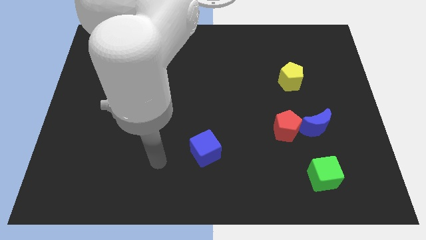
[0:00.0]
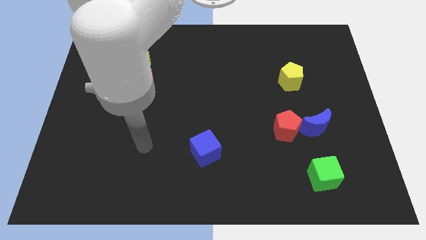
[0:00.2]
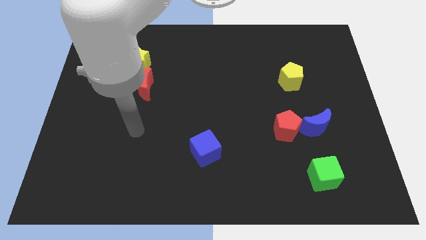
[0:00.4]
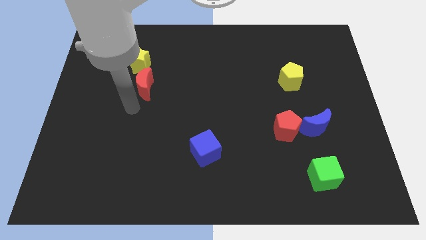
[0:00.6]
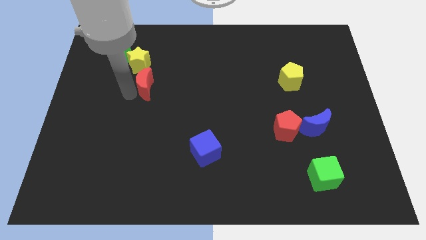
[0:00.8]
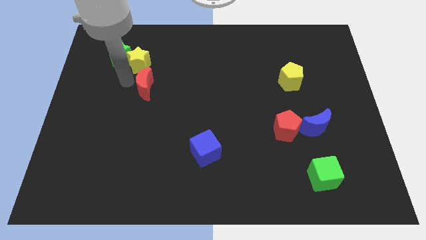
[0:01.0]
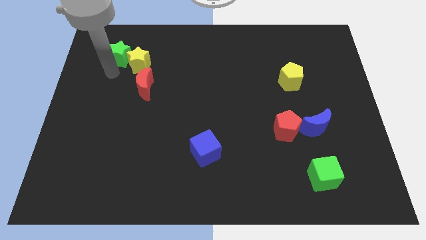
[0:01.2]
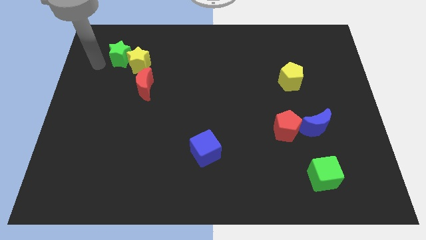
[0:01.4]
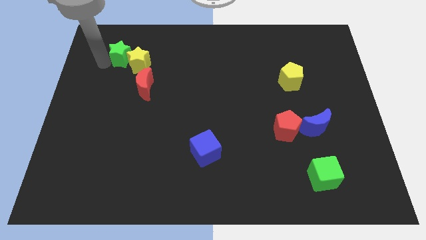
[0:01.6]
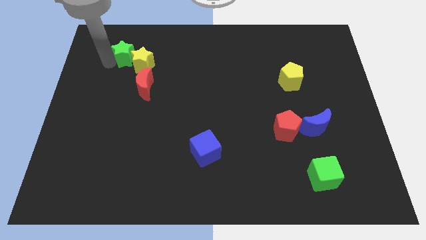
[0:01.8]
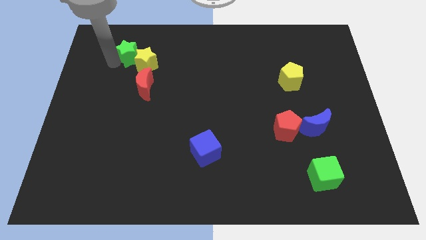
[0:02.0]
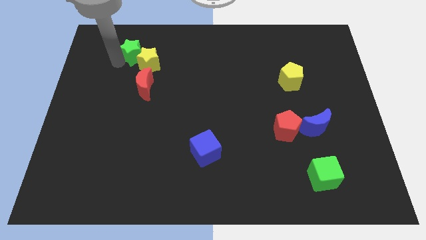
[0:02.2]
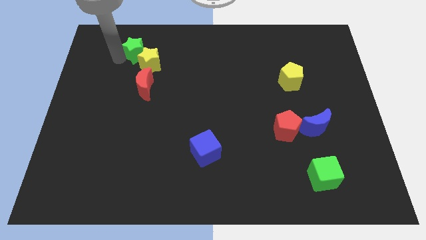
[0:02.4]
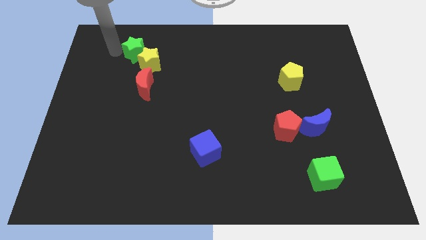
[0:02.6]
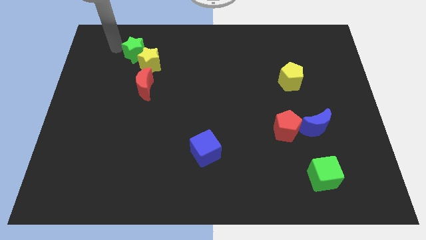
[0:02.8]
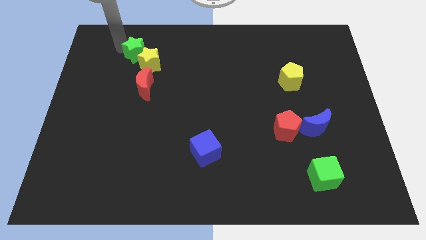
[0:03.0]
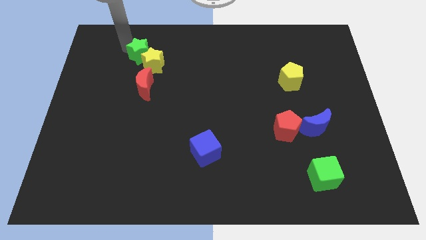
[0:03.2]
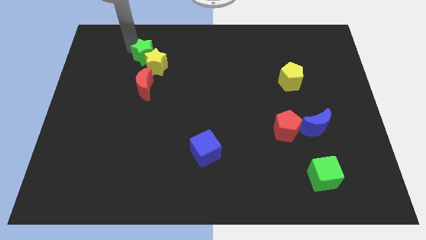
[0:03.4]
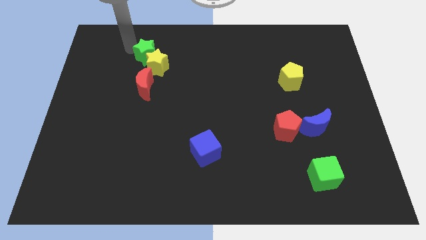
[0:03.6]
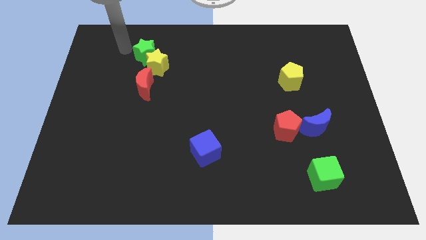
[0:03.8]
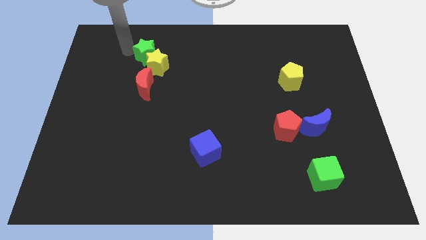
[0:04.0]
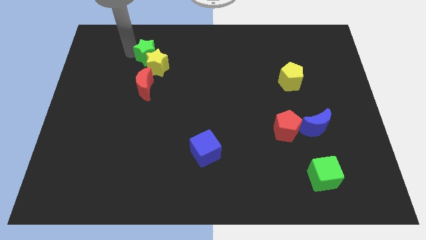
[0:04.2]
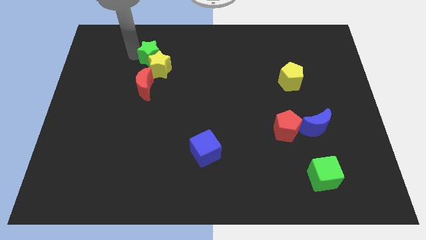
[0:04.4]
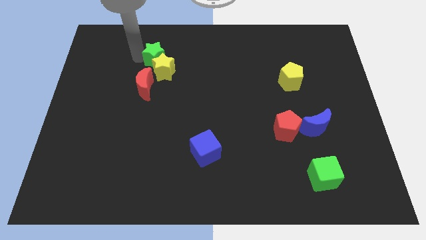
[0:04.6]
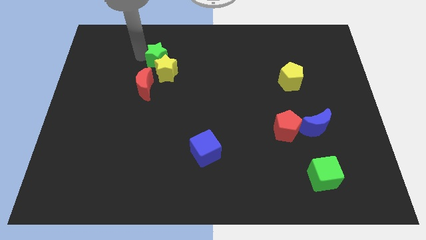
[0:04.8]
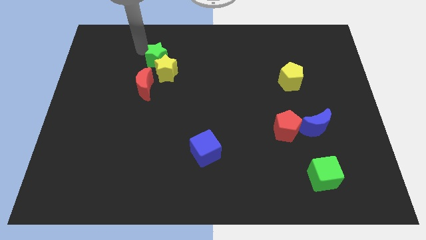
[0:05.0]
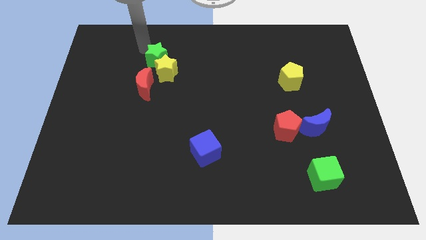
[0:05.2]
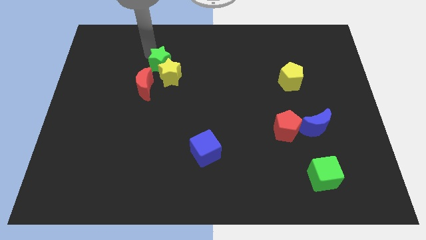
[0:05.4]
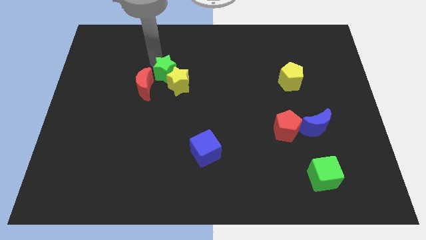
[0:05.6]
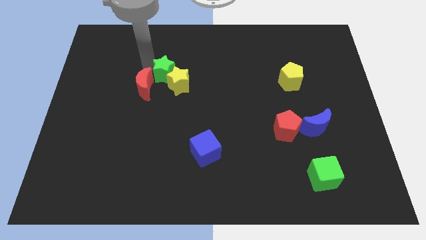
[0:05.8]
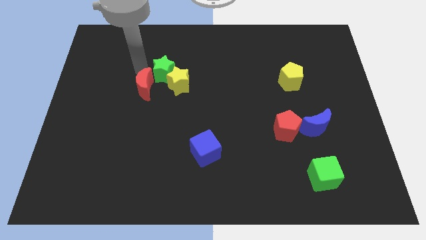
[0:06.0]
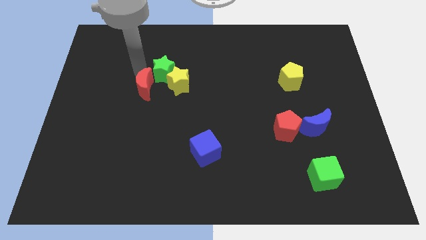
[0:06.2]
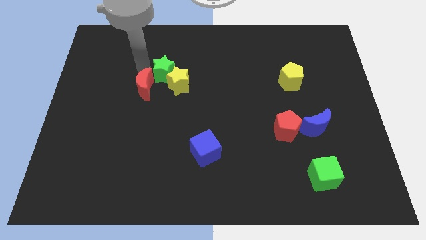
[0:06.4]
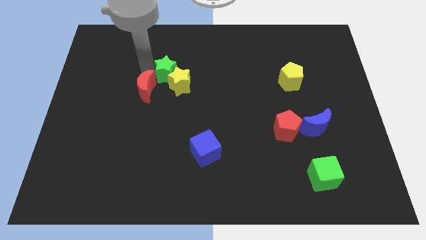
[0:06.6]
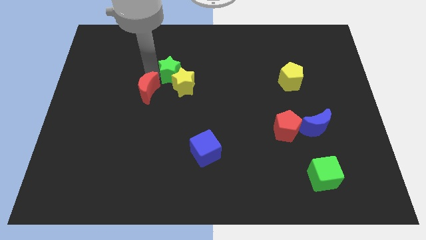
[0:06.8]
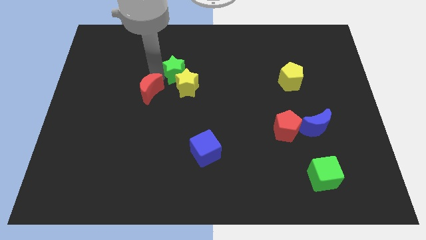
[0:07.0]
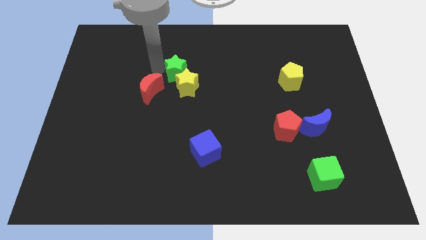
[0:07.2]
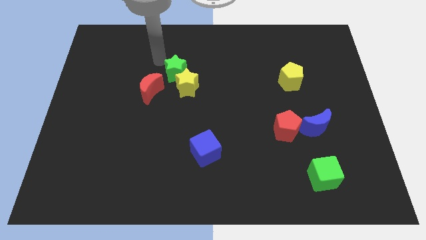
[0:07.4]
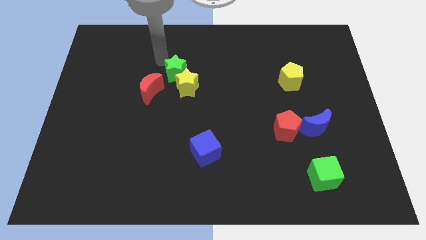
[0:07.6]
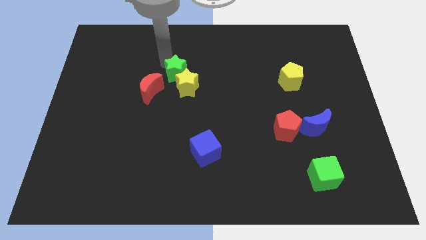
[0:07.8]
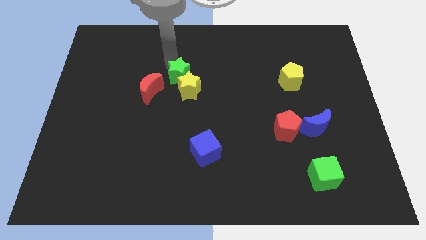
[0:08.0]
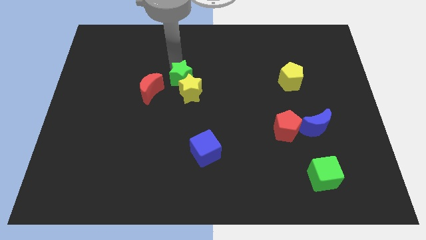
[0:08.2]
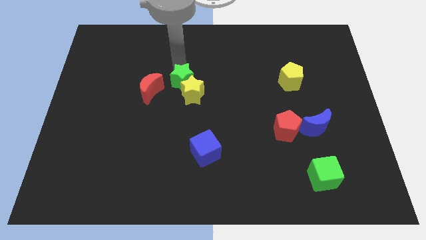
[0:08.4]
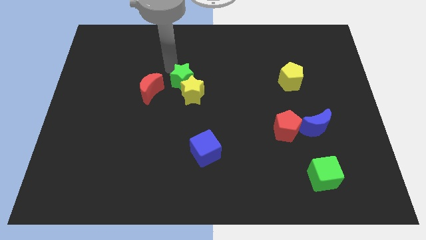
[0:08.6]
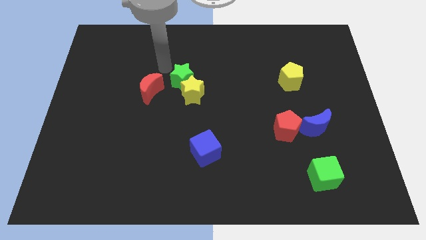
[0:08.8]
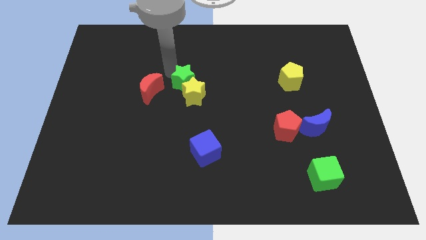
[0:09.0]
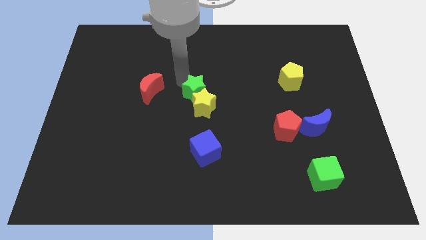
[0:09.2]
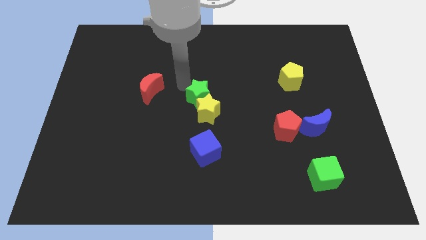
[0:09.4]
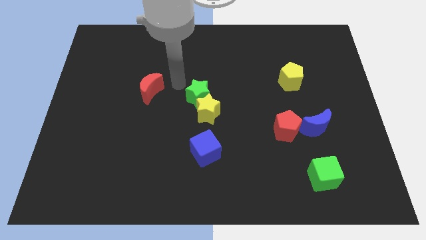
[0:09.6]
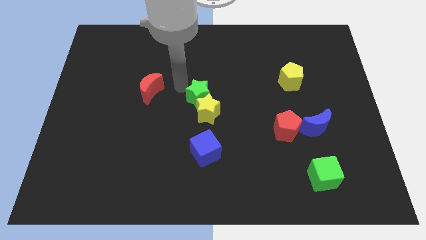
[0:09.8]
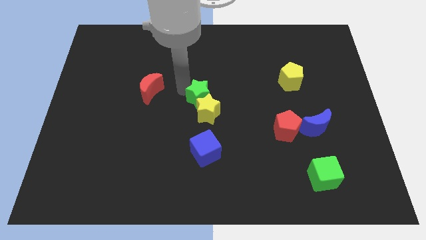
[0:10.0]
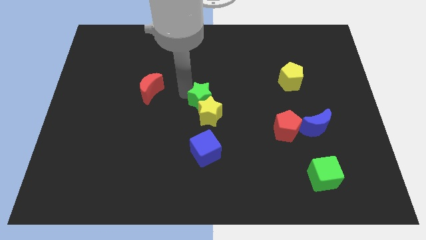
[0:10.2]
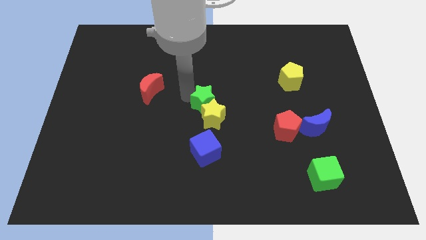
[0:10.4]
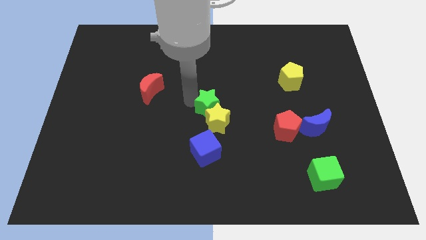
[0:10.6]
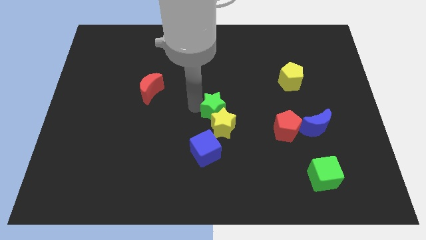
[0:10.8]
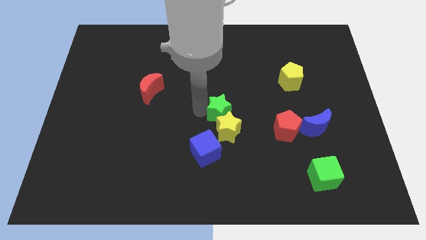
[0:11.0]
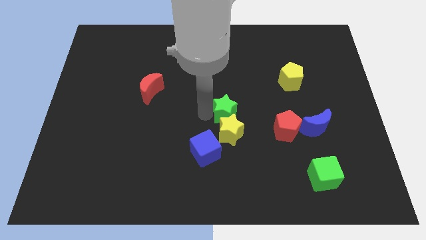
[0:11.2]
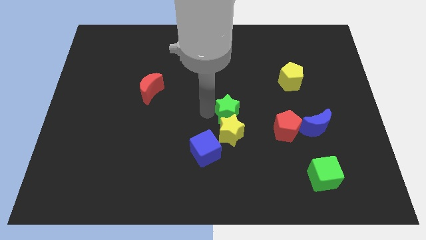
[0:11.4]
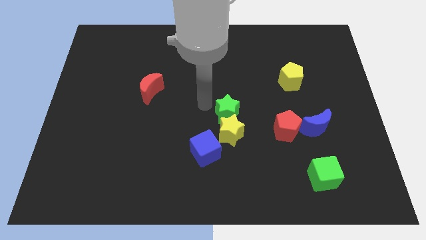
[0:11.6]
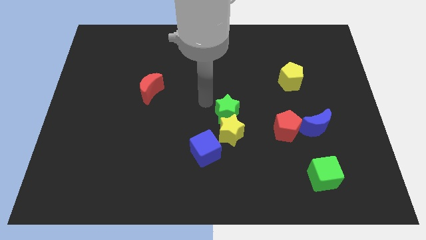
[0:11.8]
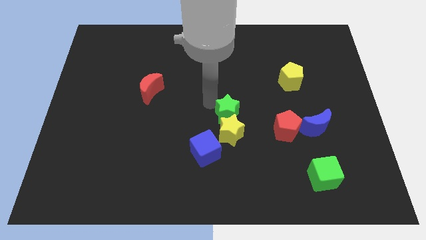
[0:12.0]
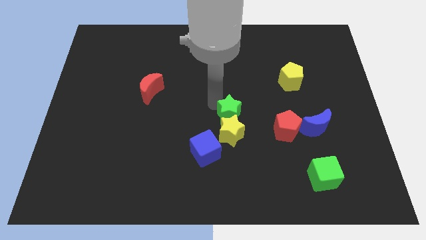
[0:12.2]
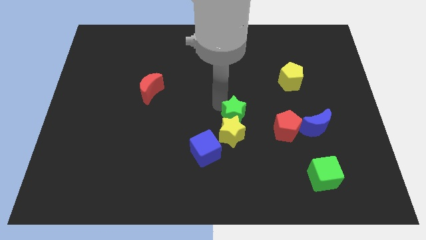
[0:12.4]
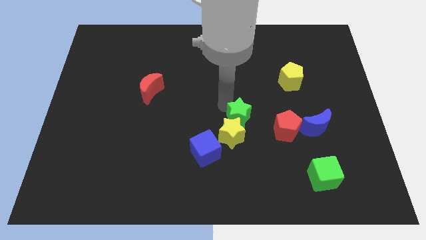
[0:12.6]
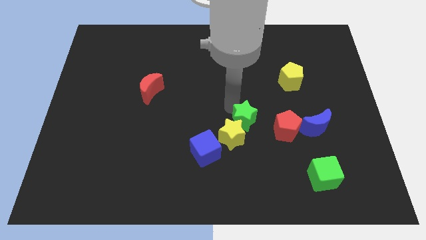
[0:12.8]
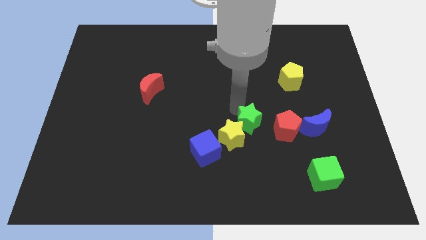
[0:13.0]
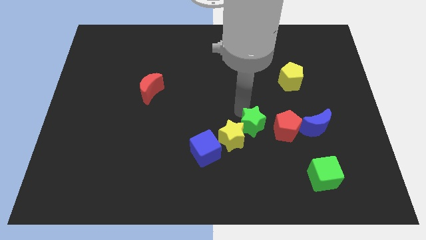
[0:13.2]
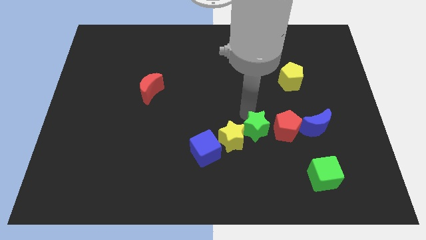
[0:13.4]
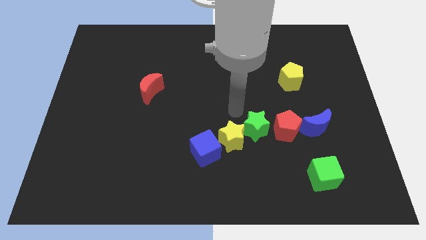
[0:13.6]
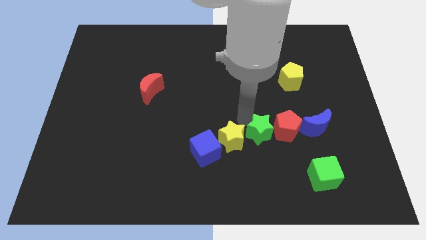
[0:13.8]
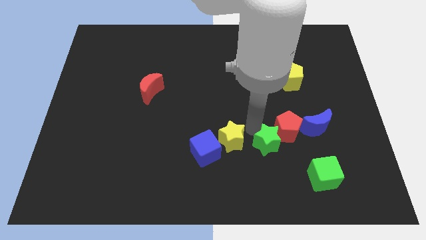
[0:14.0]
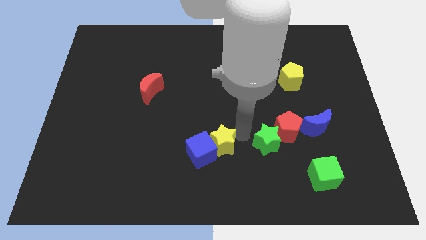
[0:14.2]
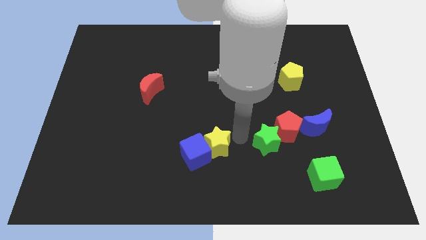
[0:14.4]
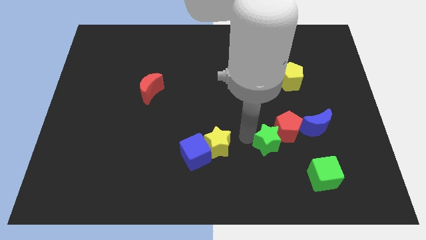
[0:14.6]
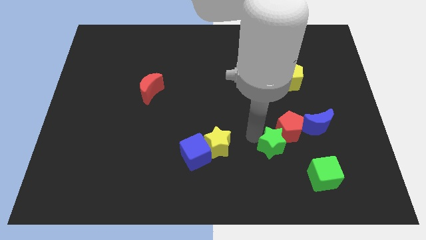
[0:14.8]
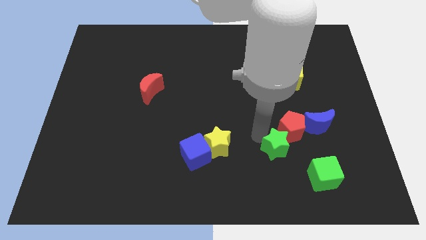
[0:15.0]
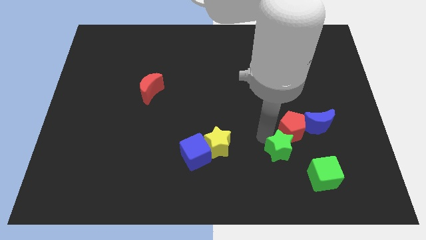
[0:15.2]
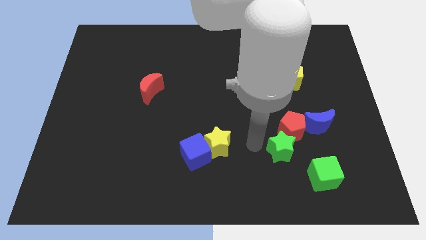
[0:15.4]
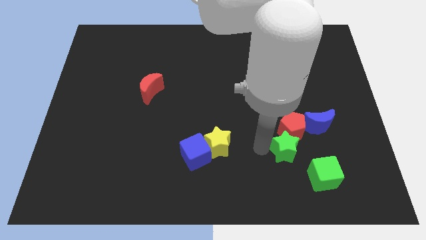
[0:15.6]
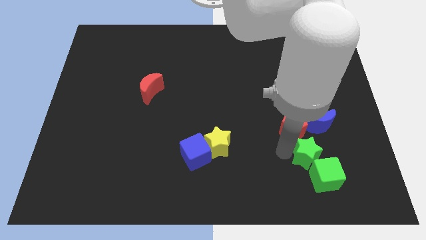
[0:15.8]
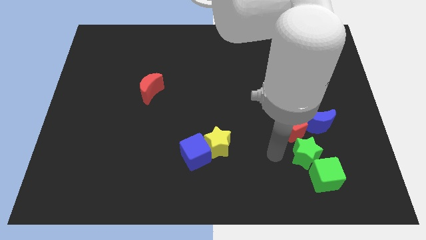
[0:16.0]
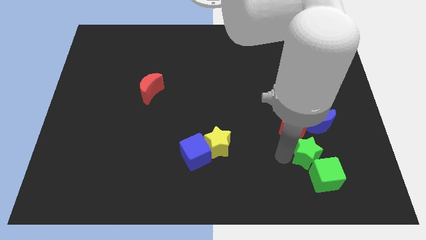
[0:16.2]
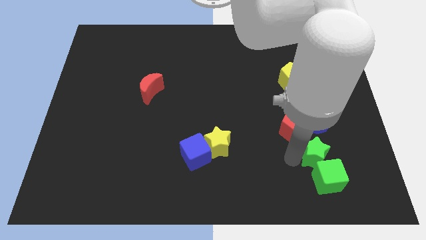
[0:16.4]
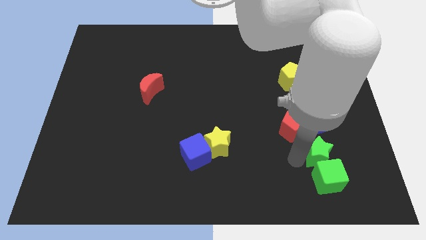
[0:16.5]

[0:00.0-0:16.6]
slide the green star diagonally up and to the right of the green cube
